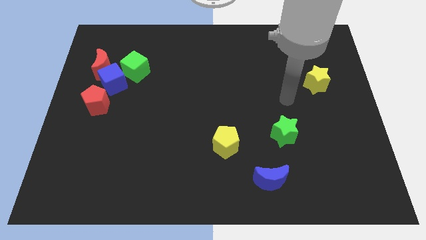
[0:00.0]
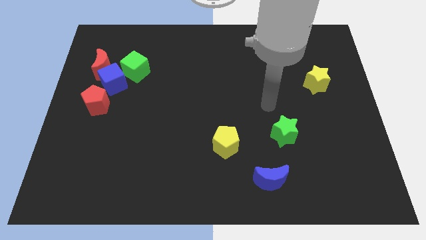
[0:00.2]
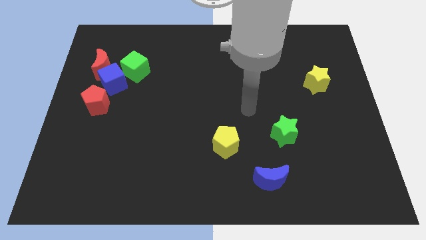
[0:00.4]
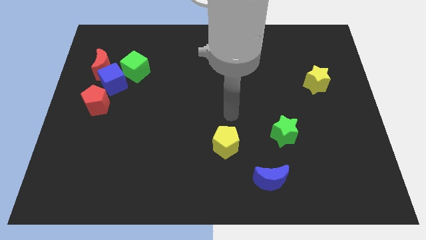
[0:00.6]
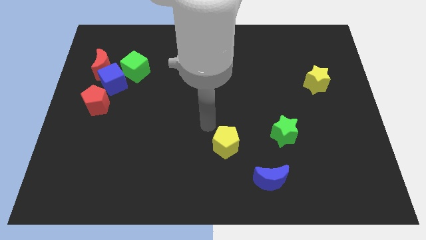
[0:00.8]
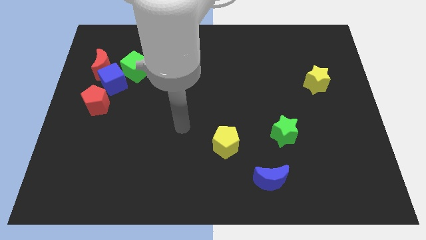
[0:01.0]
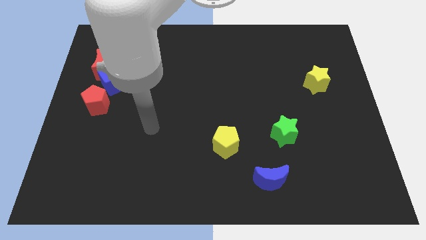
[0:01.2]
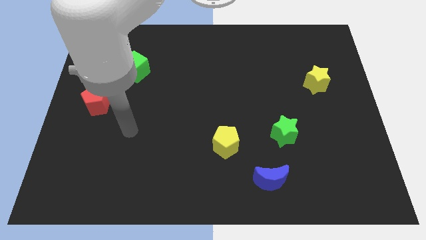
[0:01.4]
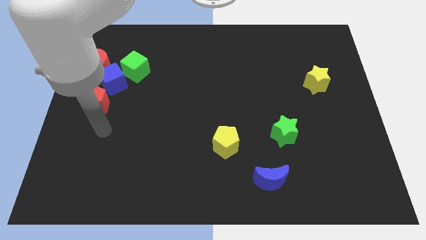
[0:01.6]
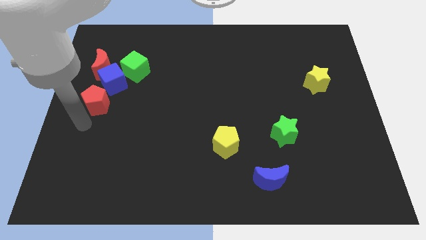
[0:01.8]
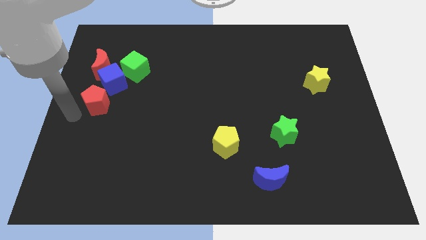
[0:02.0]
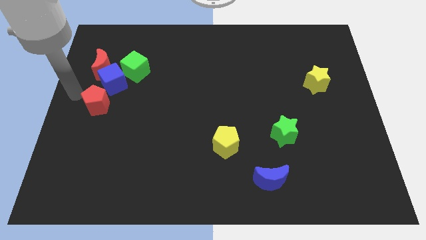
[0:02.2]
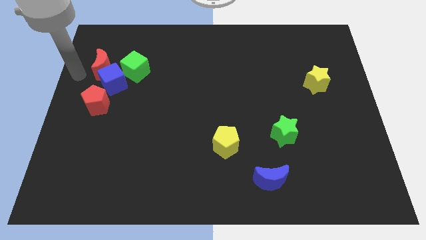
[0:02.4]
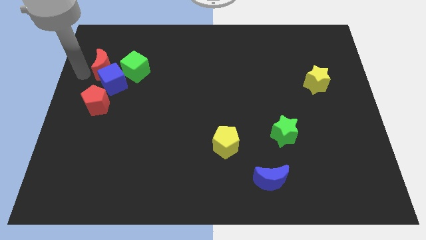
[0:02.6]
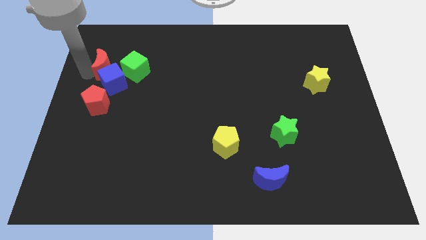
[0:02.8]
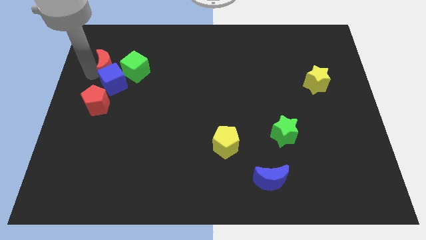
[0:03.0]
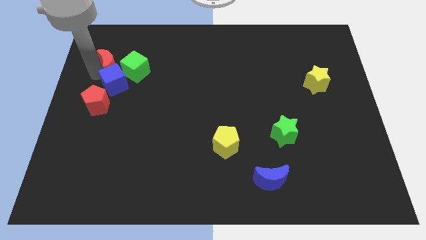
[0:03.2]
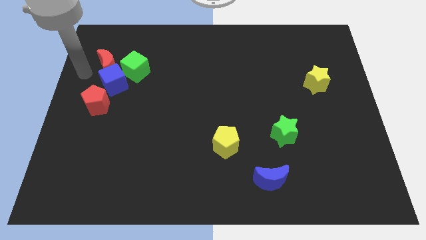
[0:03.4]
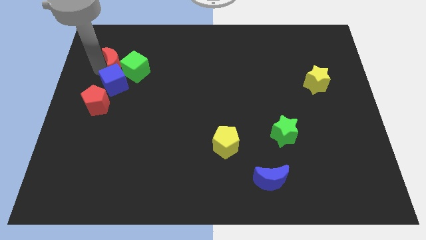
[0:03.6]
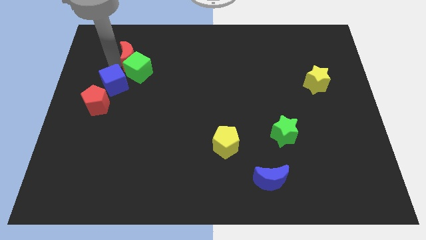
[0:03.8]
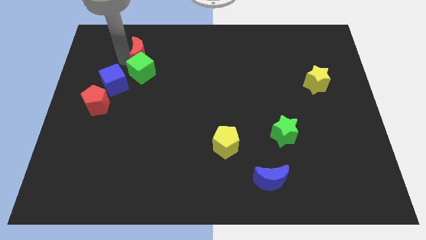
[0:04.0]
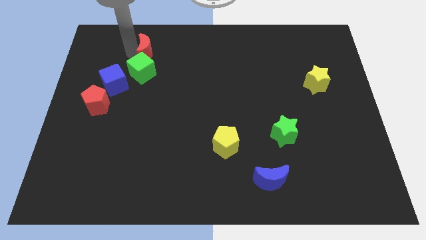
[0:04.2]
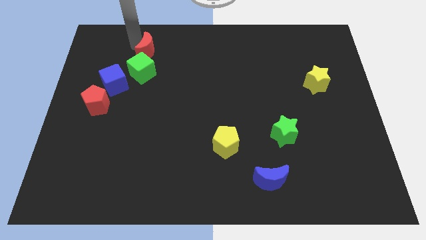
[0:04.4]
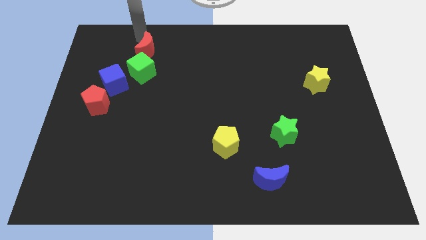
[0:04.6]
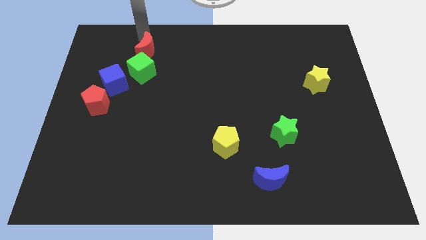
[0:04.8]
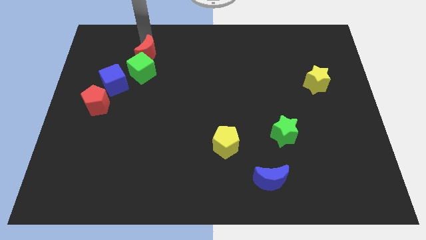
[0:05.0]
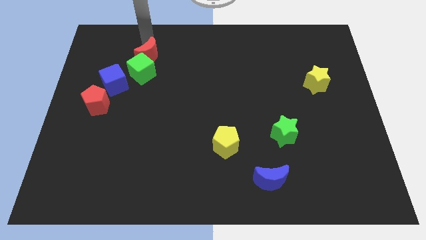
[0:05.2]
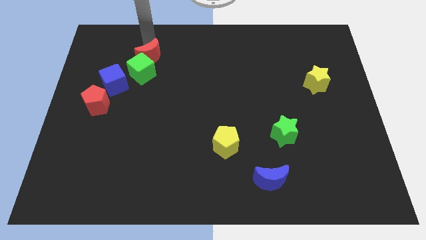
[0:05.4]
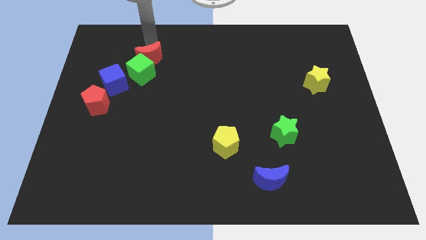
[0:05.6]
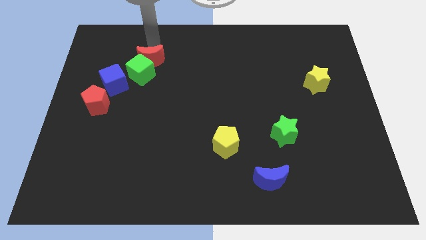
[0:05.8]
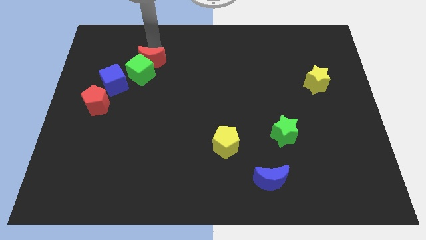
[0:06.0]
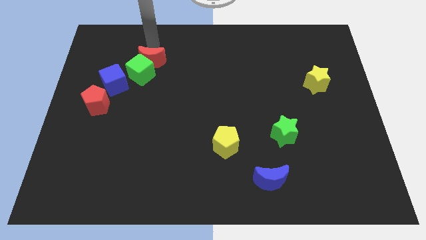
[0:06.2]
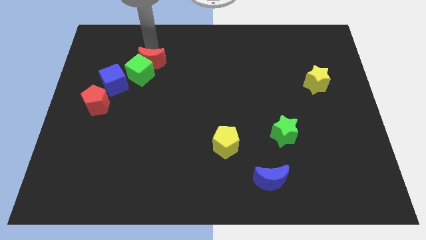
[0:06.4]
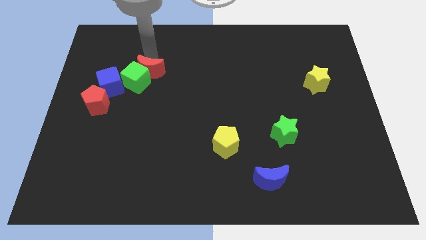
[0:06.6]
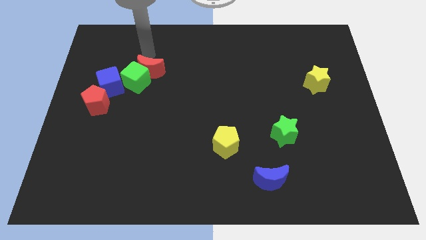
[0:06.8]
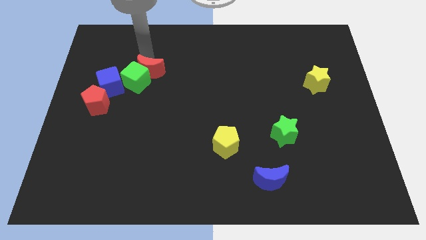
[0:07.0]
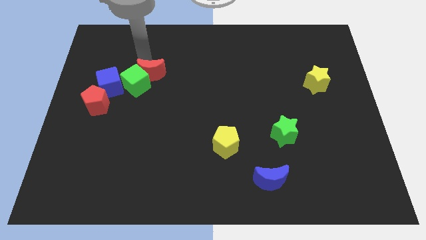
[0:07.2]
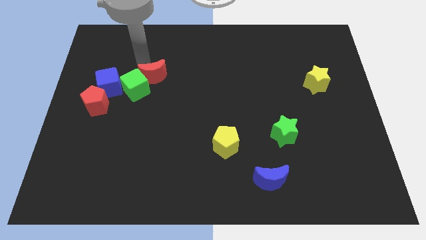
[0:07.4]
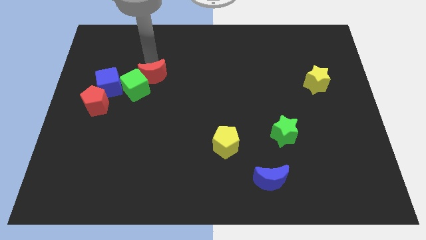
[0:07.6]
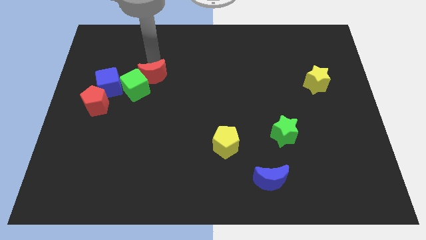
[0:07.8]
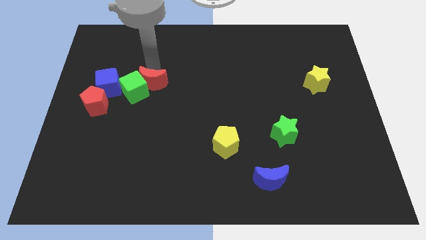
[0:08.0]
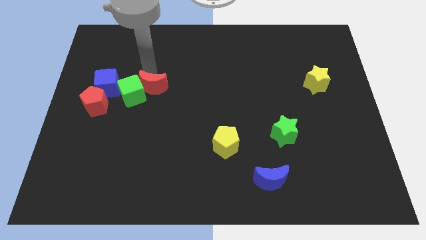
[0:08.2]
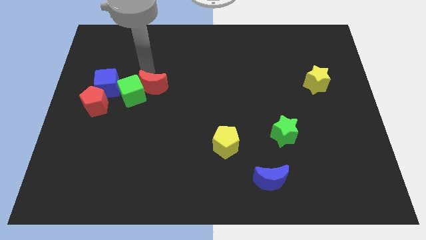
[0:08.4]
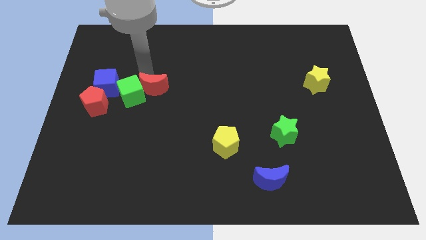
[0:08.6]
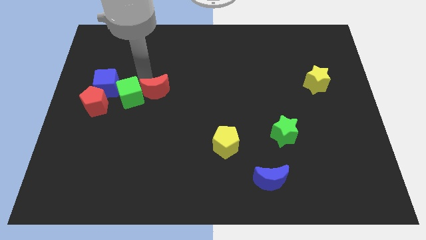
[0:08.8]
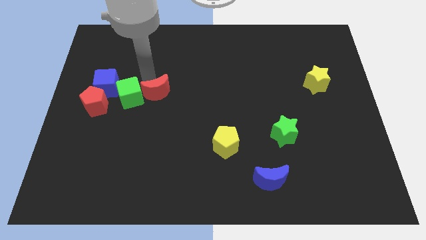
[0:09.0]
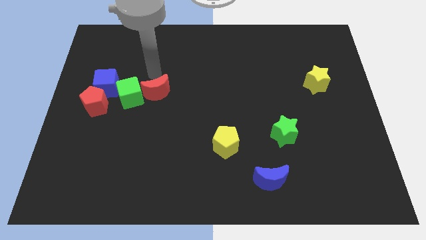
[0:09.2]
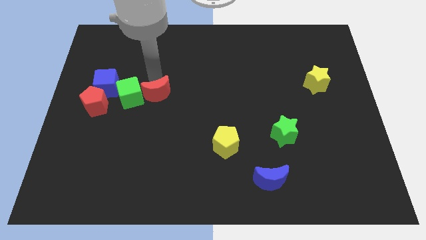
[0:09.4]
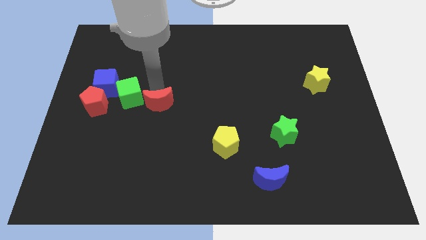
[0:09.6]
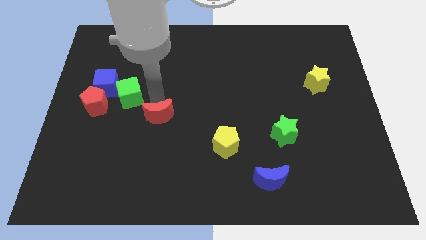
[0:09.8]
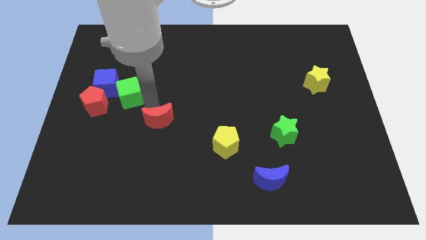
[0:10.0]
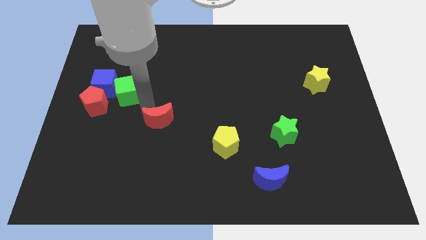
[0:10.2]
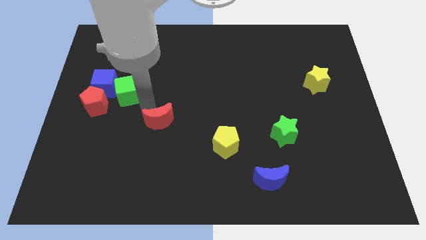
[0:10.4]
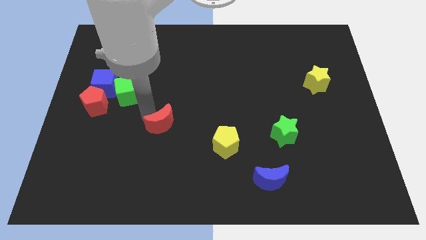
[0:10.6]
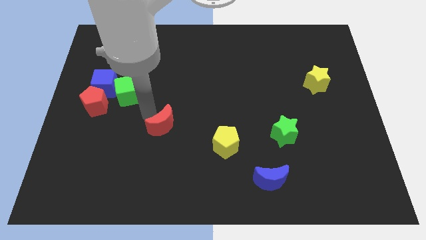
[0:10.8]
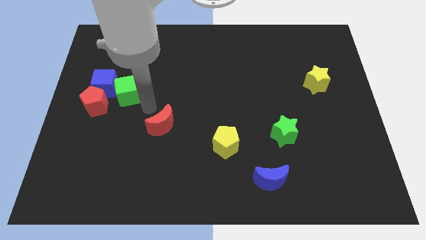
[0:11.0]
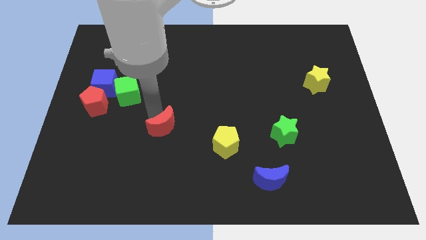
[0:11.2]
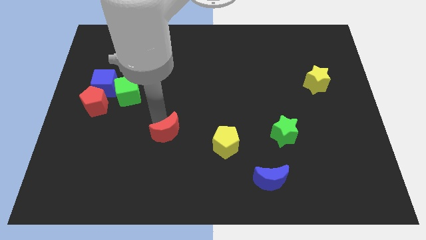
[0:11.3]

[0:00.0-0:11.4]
move the red moon just left of the yellow pentagon

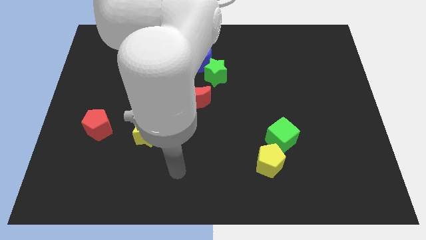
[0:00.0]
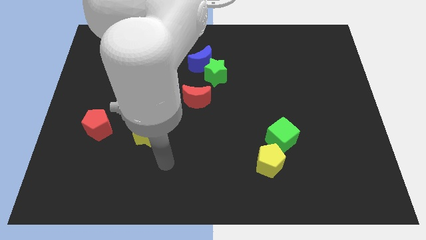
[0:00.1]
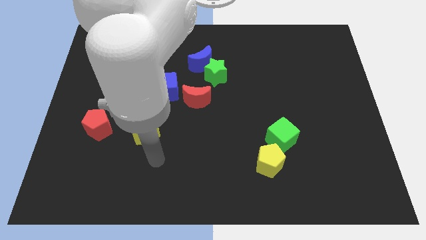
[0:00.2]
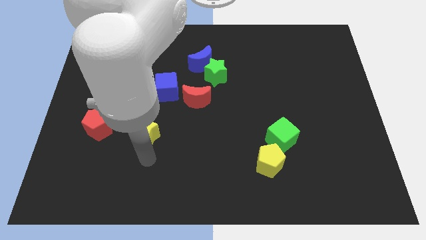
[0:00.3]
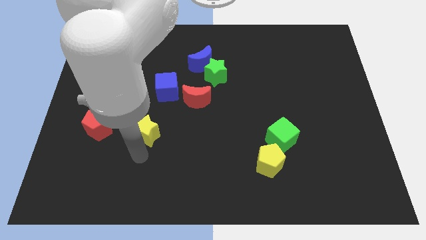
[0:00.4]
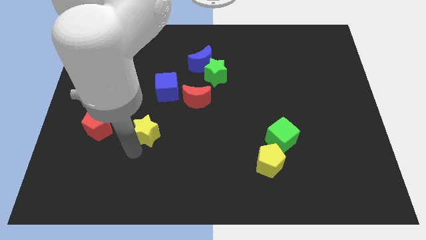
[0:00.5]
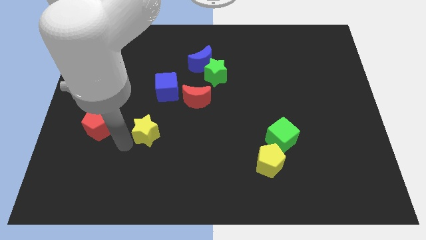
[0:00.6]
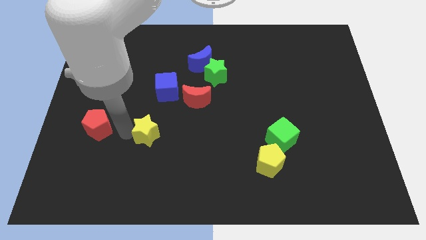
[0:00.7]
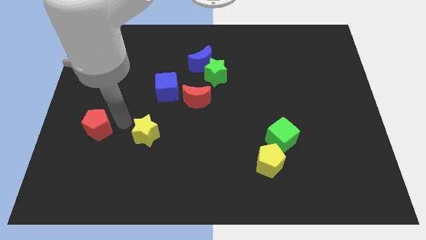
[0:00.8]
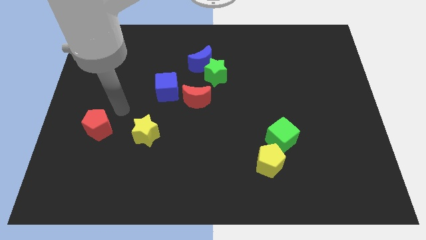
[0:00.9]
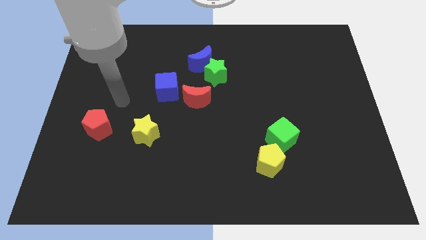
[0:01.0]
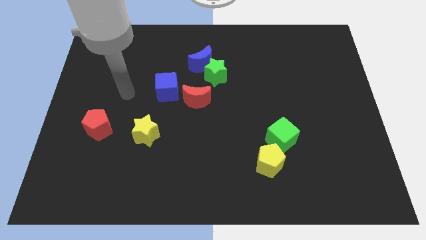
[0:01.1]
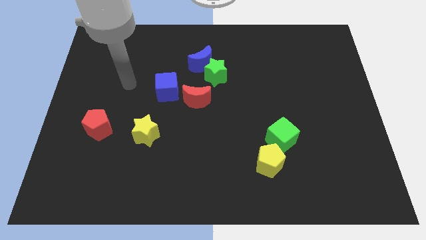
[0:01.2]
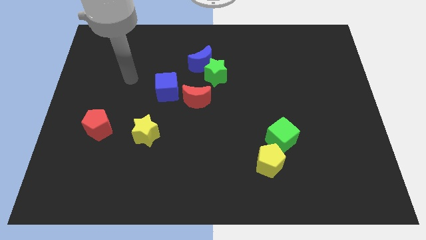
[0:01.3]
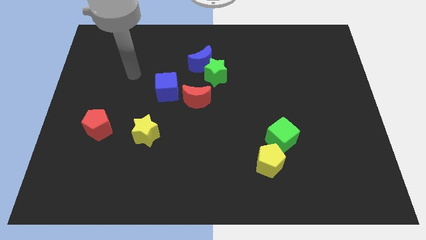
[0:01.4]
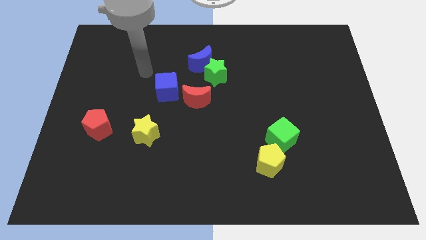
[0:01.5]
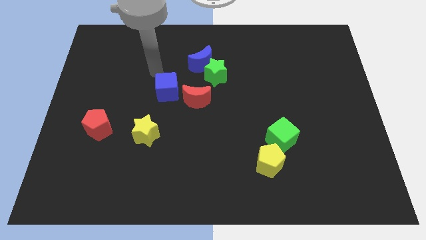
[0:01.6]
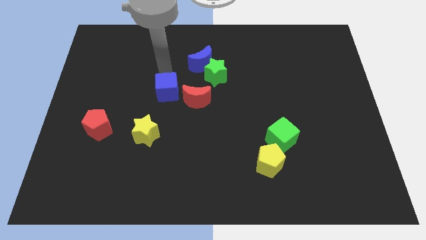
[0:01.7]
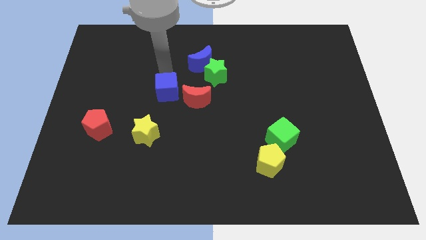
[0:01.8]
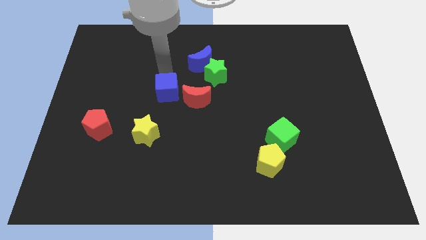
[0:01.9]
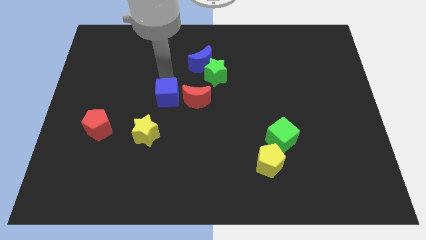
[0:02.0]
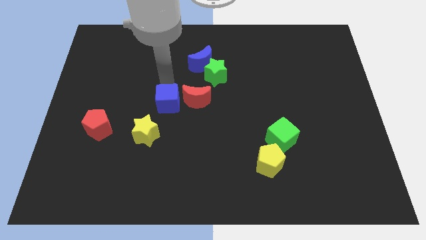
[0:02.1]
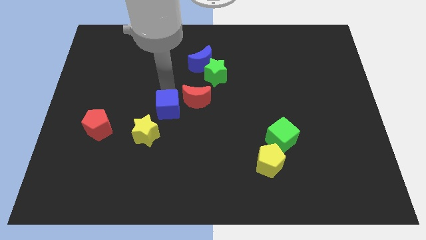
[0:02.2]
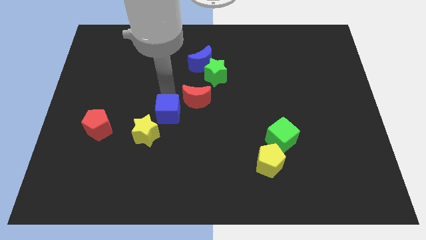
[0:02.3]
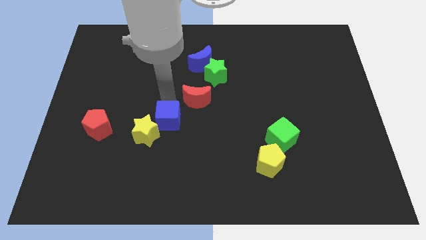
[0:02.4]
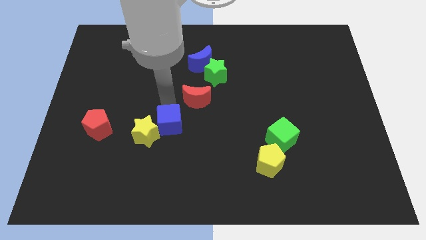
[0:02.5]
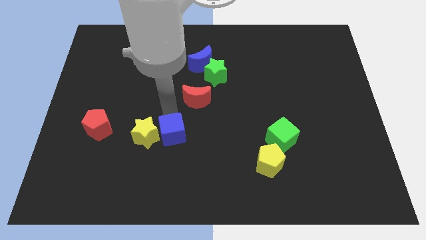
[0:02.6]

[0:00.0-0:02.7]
push the blue cube to the bottom right of the yellow star
